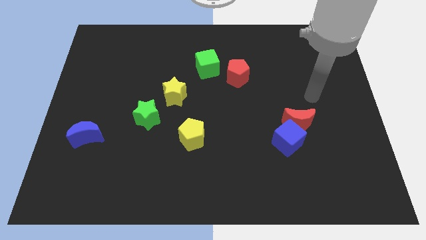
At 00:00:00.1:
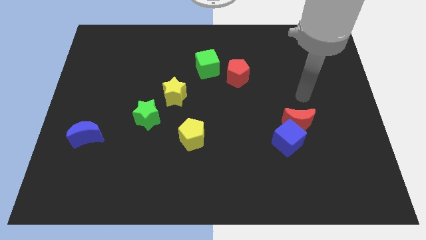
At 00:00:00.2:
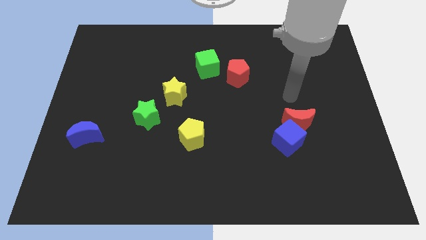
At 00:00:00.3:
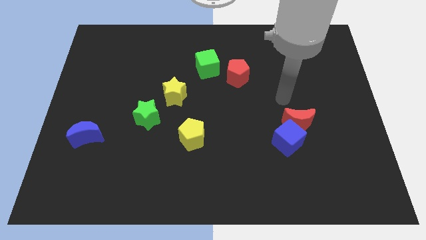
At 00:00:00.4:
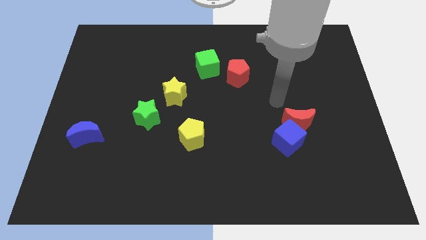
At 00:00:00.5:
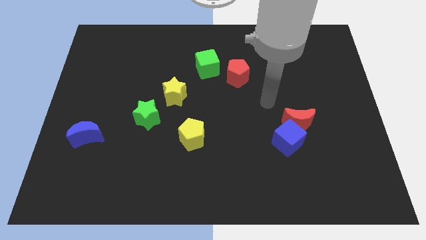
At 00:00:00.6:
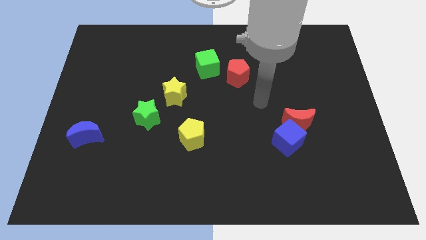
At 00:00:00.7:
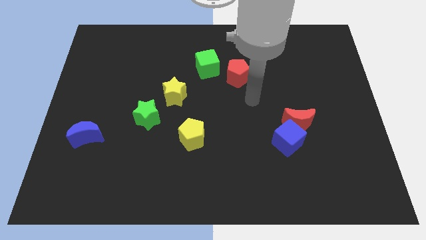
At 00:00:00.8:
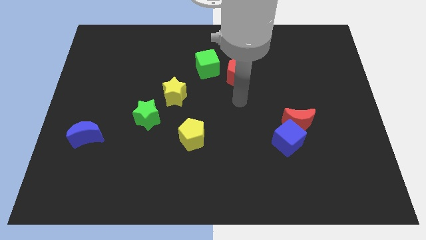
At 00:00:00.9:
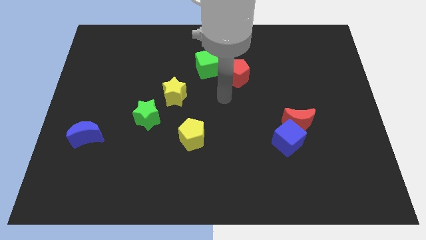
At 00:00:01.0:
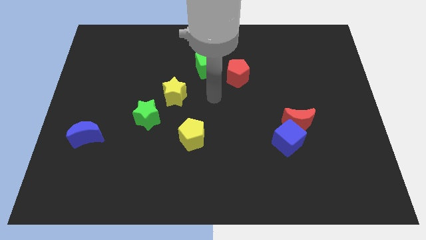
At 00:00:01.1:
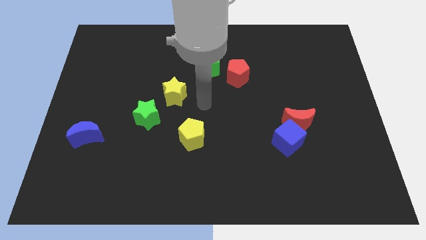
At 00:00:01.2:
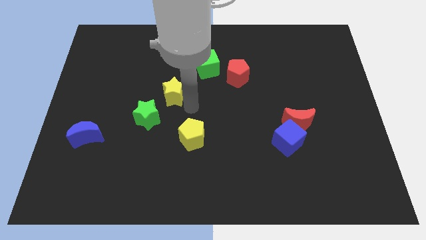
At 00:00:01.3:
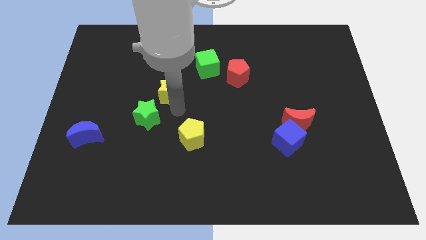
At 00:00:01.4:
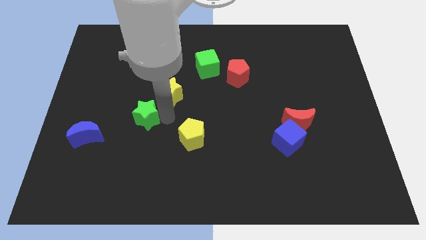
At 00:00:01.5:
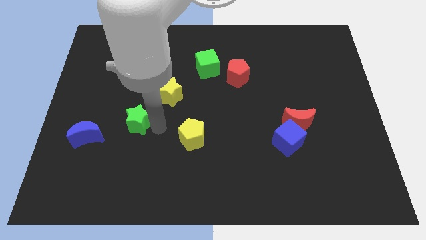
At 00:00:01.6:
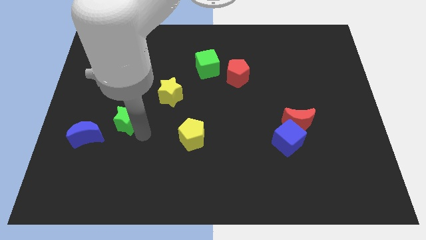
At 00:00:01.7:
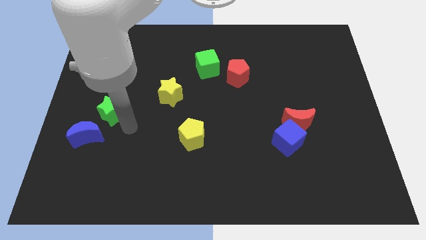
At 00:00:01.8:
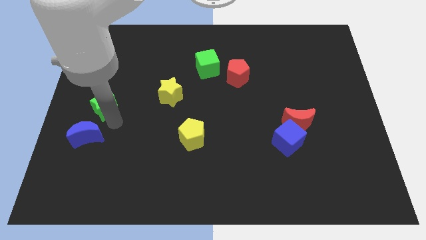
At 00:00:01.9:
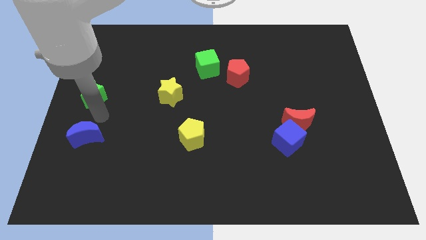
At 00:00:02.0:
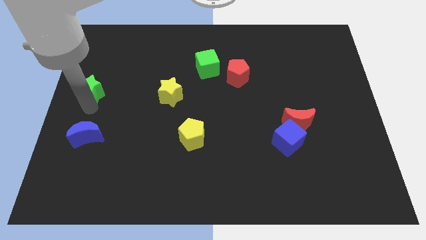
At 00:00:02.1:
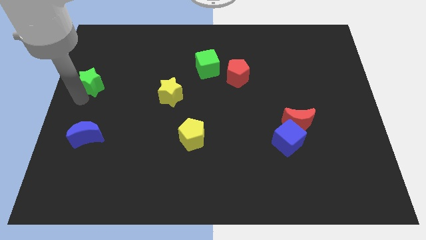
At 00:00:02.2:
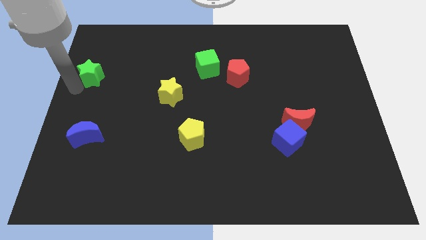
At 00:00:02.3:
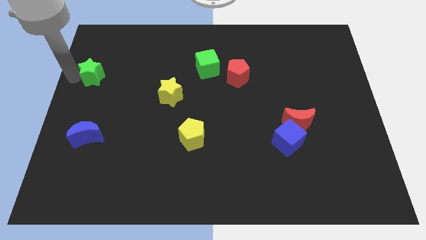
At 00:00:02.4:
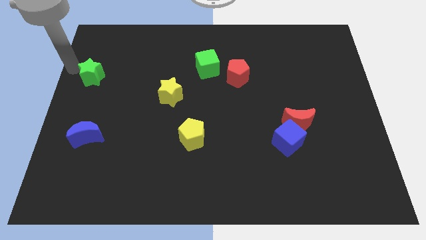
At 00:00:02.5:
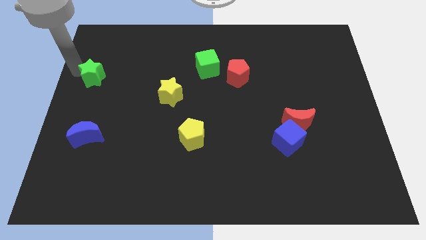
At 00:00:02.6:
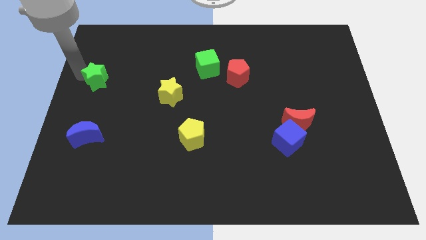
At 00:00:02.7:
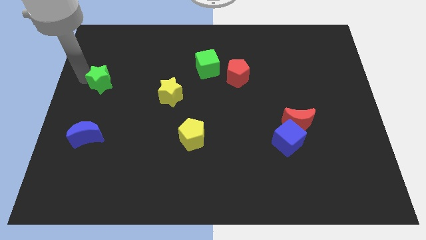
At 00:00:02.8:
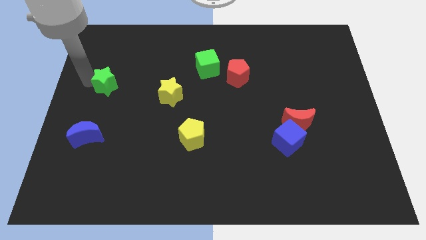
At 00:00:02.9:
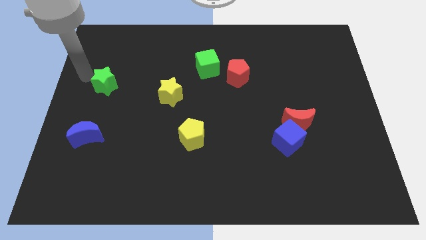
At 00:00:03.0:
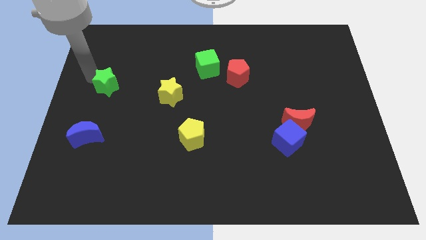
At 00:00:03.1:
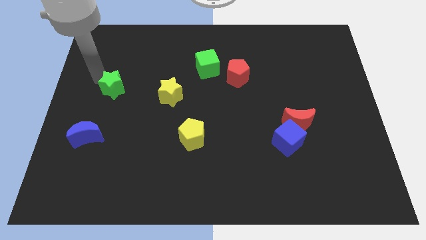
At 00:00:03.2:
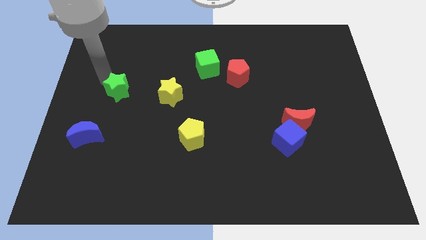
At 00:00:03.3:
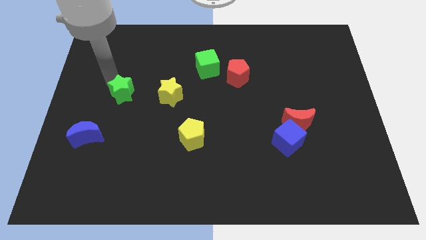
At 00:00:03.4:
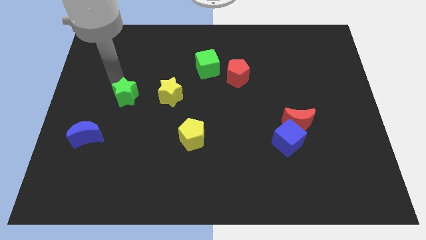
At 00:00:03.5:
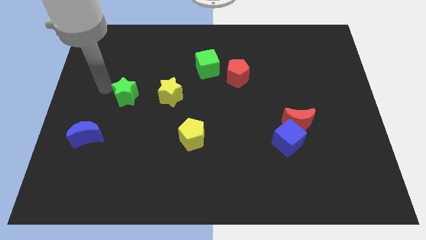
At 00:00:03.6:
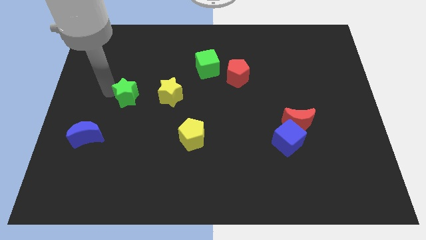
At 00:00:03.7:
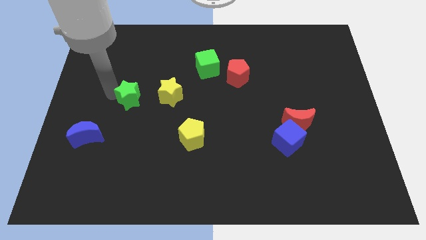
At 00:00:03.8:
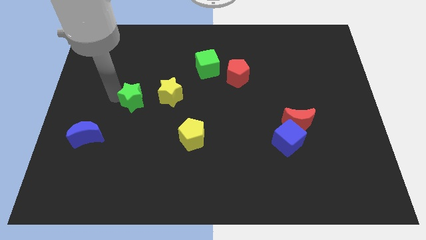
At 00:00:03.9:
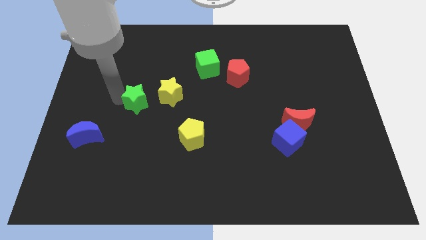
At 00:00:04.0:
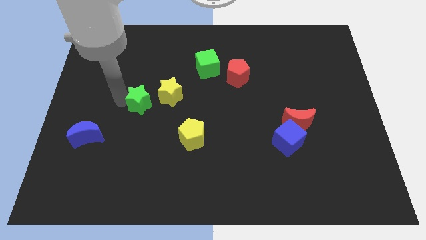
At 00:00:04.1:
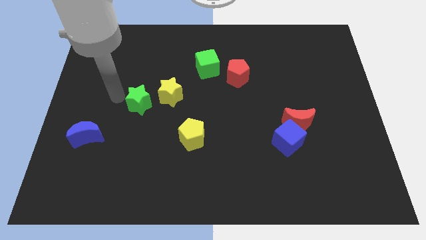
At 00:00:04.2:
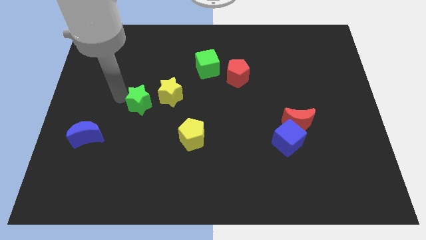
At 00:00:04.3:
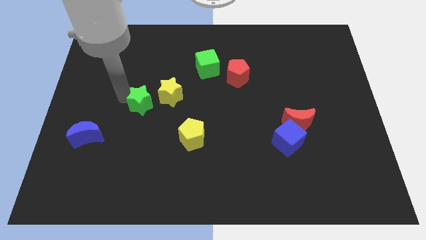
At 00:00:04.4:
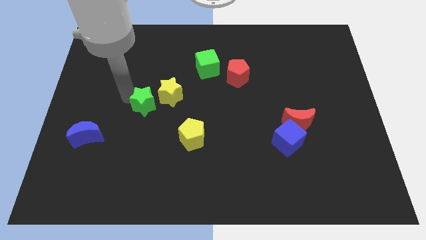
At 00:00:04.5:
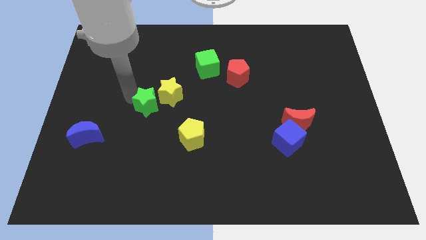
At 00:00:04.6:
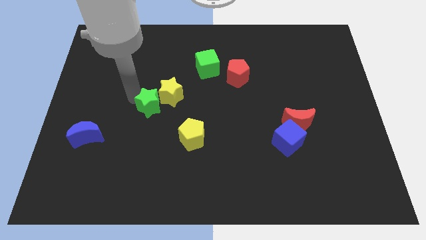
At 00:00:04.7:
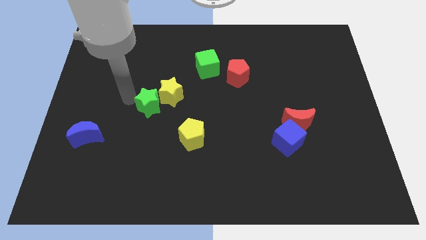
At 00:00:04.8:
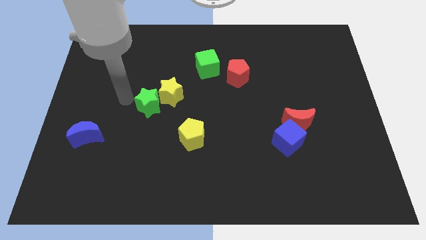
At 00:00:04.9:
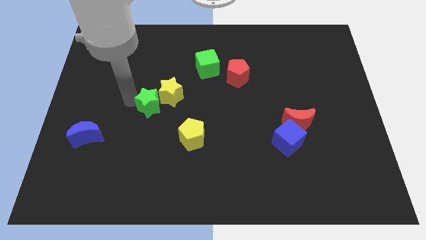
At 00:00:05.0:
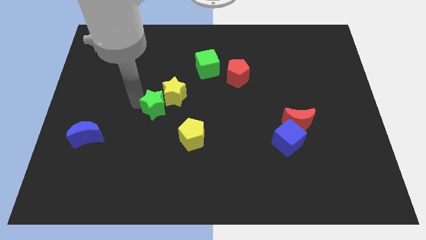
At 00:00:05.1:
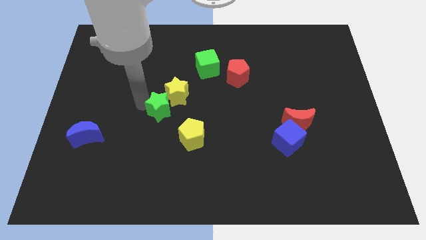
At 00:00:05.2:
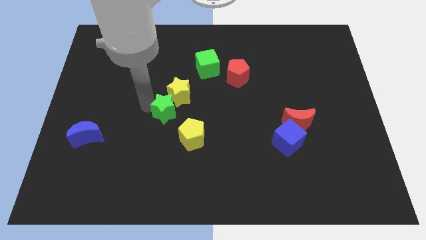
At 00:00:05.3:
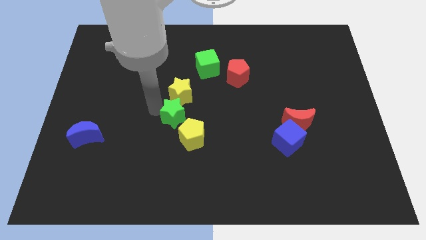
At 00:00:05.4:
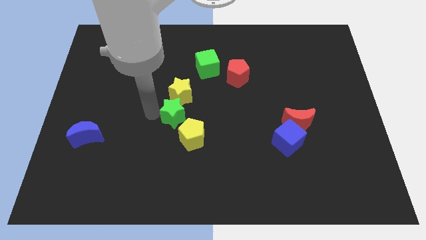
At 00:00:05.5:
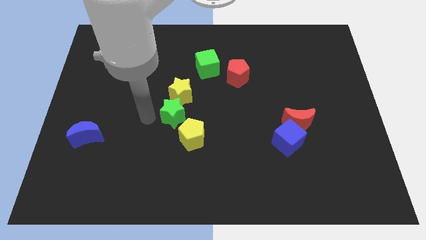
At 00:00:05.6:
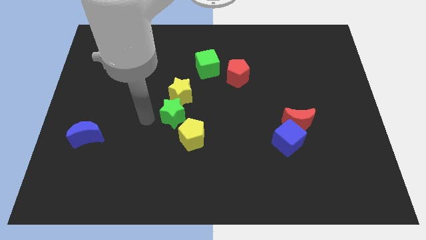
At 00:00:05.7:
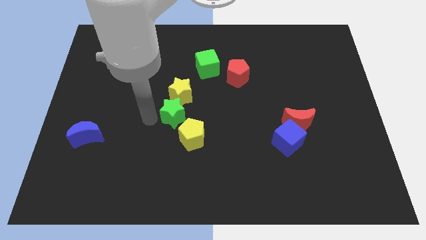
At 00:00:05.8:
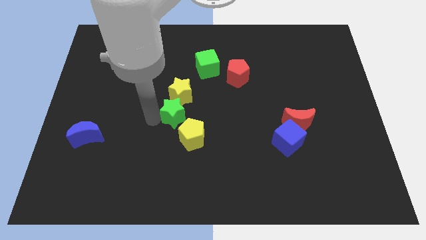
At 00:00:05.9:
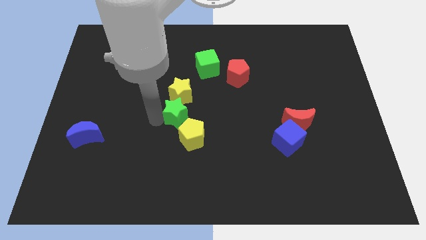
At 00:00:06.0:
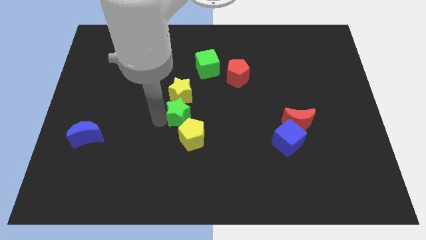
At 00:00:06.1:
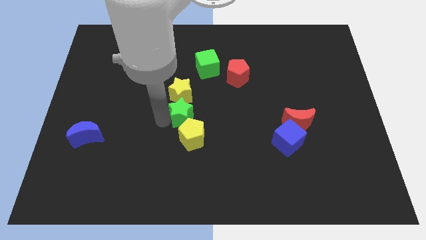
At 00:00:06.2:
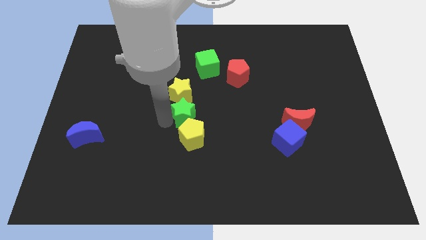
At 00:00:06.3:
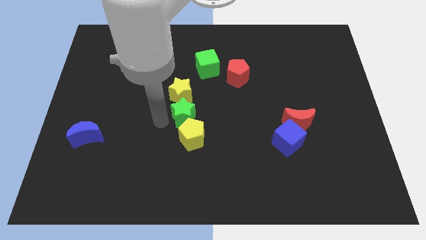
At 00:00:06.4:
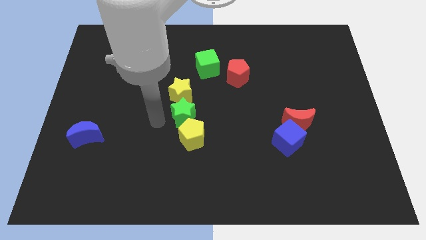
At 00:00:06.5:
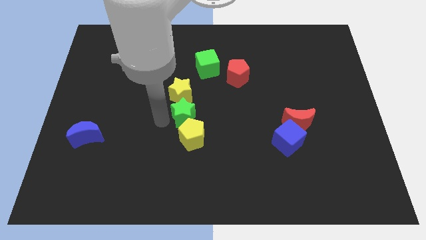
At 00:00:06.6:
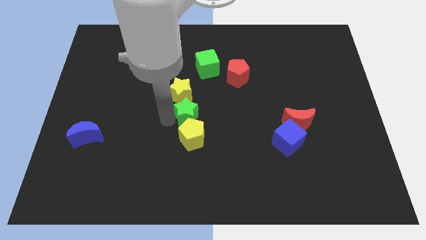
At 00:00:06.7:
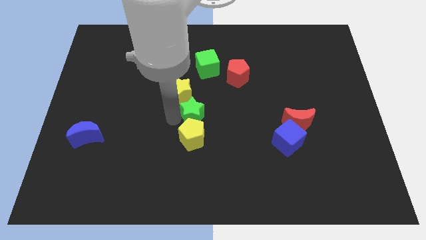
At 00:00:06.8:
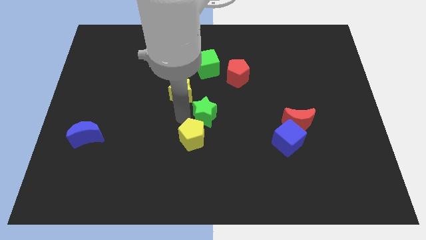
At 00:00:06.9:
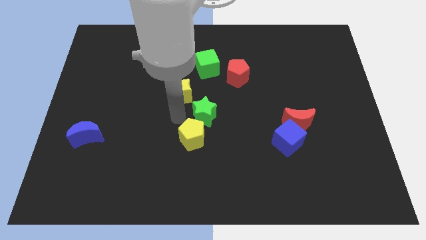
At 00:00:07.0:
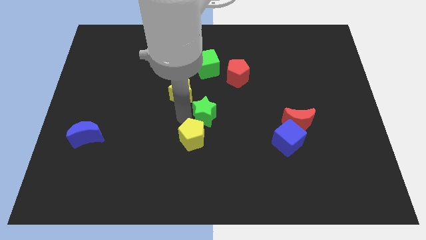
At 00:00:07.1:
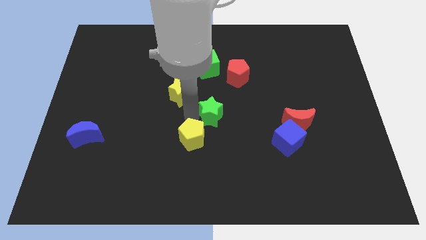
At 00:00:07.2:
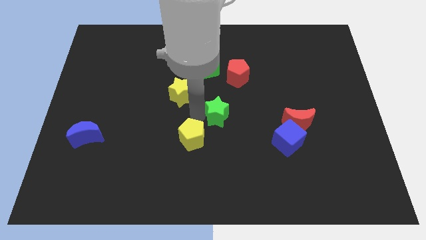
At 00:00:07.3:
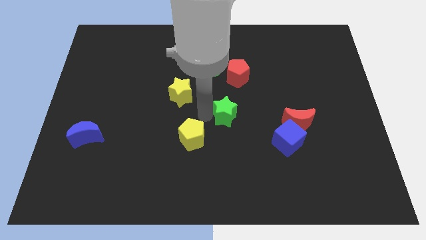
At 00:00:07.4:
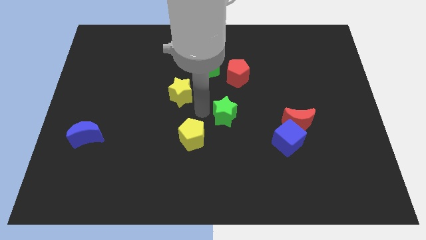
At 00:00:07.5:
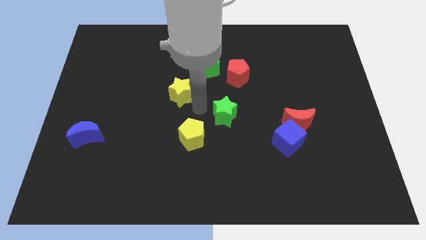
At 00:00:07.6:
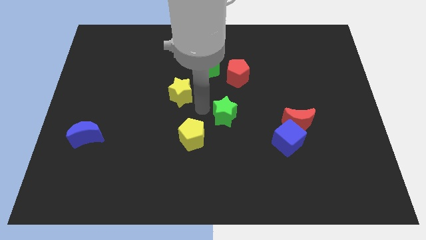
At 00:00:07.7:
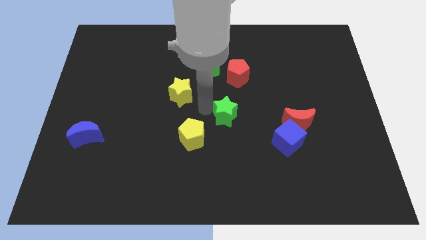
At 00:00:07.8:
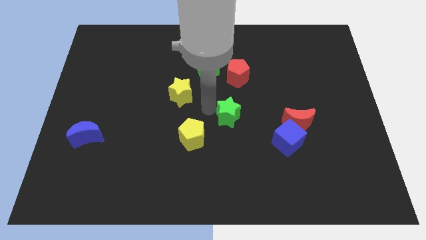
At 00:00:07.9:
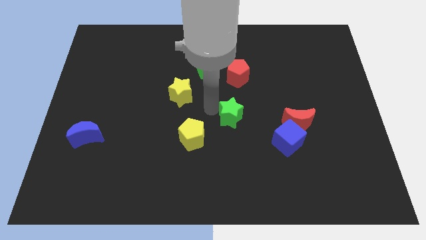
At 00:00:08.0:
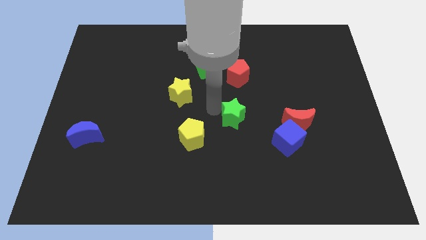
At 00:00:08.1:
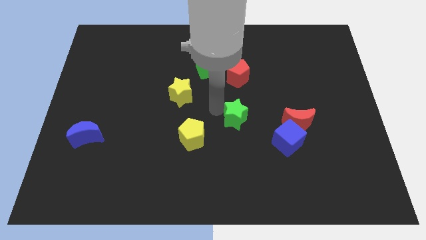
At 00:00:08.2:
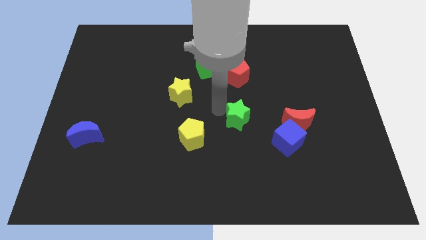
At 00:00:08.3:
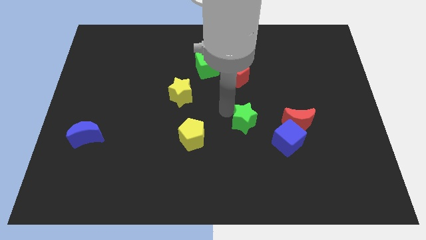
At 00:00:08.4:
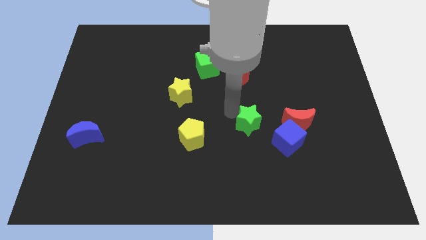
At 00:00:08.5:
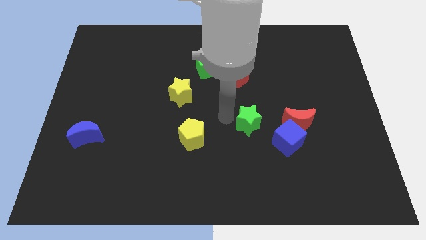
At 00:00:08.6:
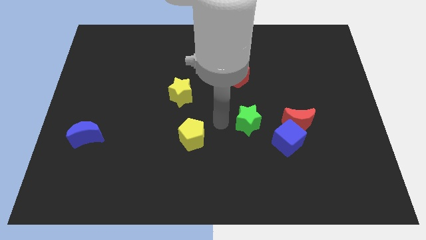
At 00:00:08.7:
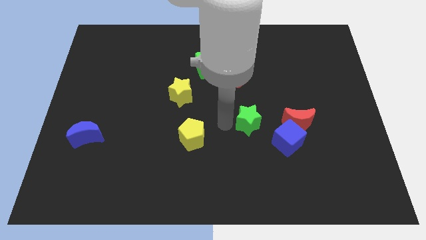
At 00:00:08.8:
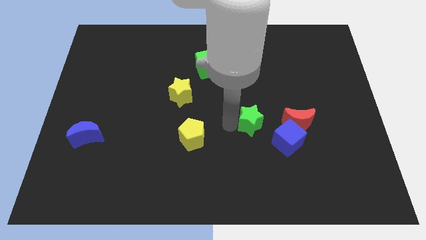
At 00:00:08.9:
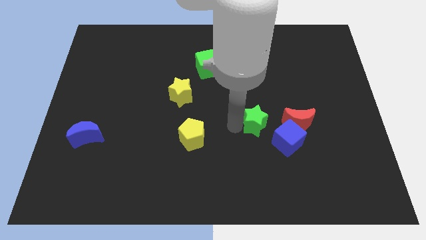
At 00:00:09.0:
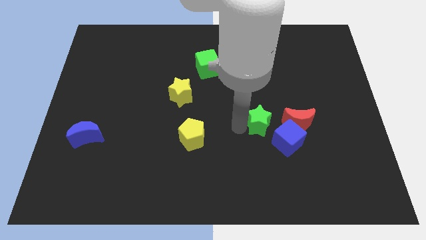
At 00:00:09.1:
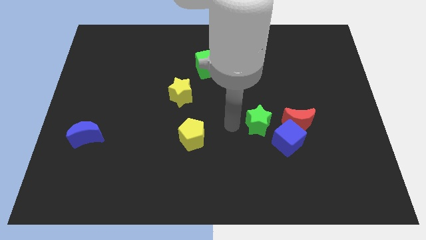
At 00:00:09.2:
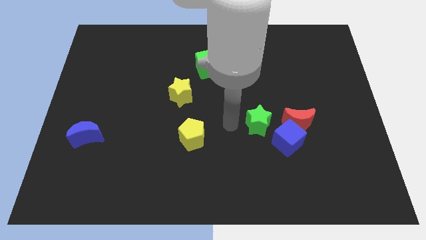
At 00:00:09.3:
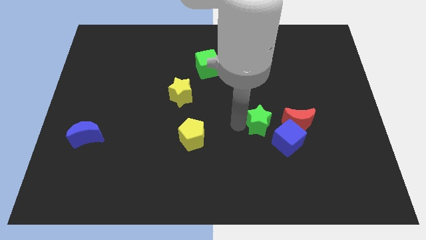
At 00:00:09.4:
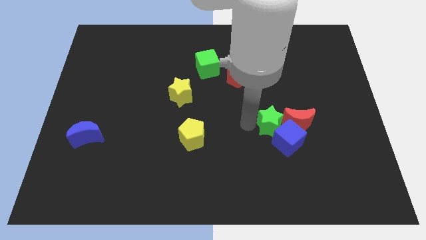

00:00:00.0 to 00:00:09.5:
move the green star towards the red moon
